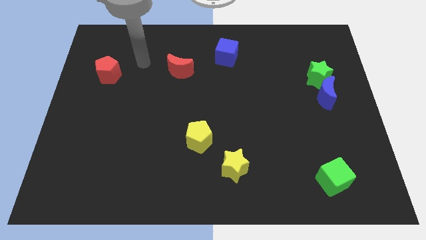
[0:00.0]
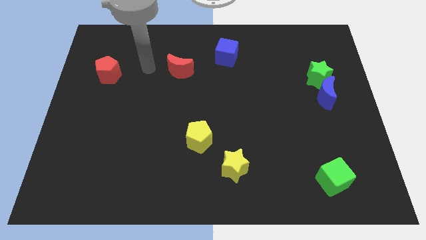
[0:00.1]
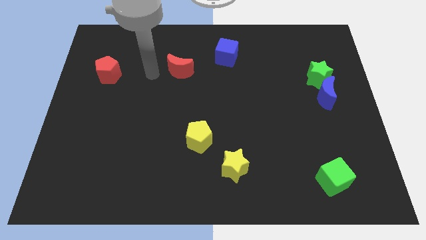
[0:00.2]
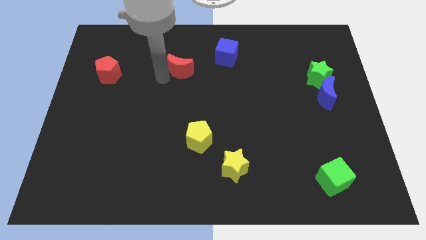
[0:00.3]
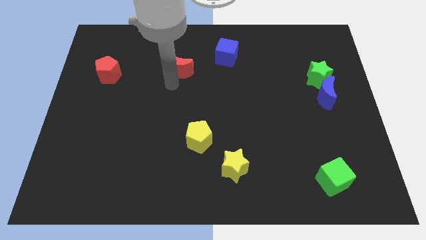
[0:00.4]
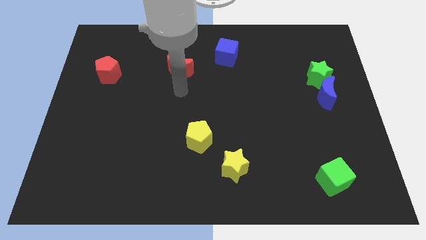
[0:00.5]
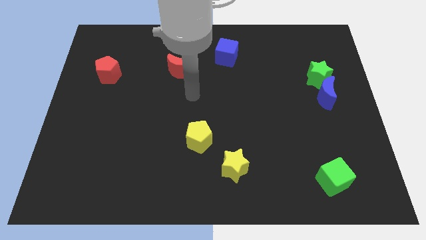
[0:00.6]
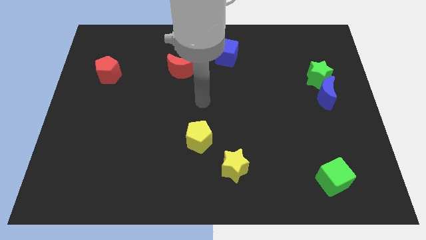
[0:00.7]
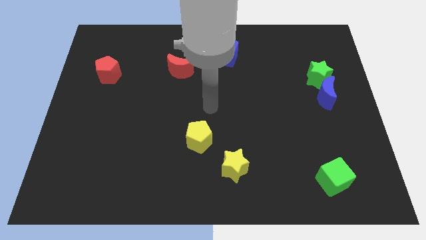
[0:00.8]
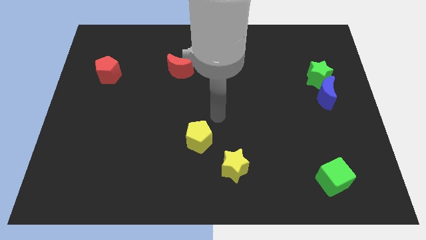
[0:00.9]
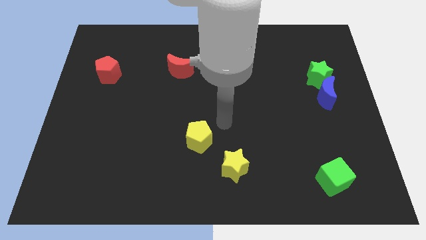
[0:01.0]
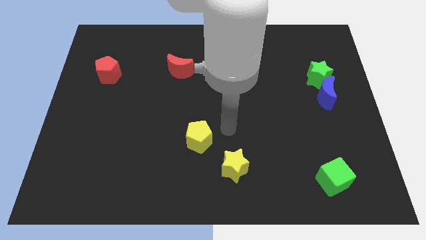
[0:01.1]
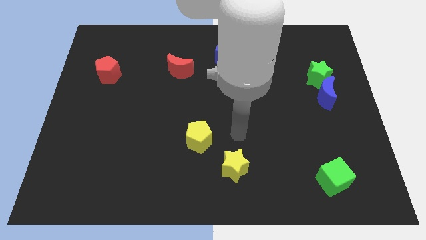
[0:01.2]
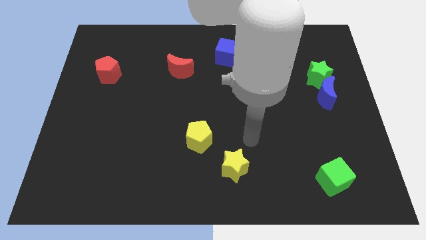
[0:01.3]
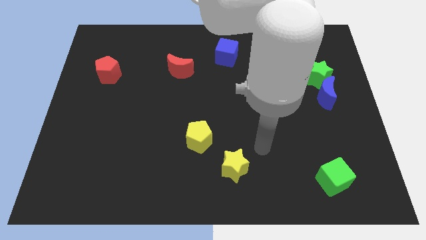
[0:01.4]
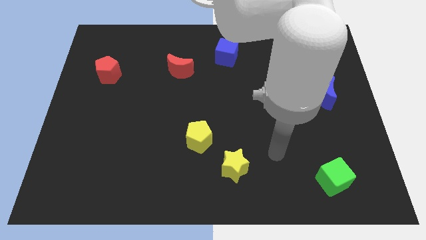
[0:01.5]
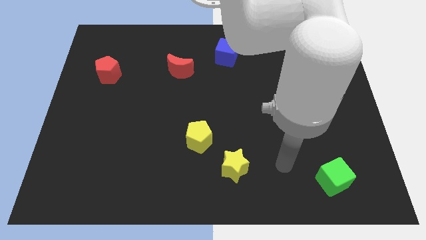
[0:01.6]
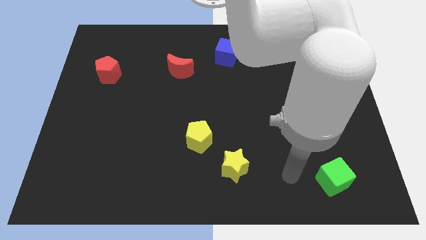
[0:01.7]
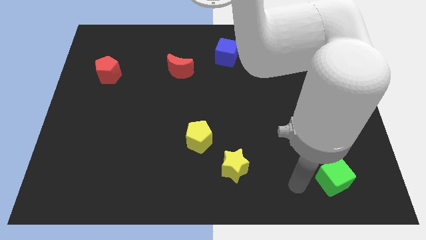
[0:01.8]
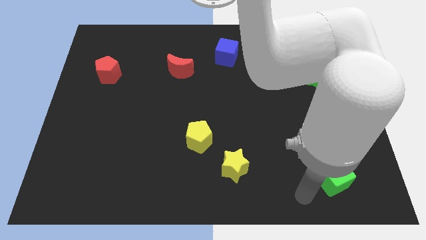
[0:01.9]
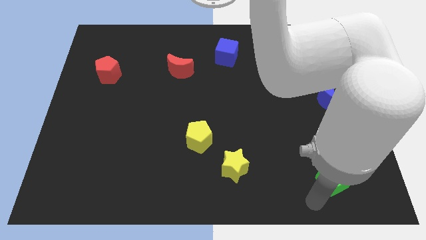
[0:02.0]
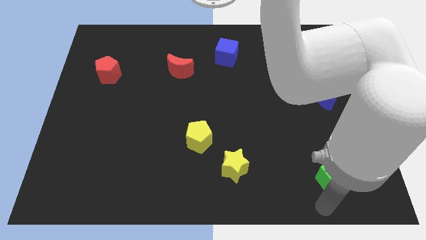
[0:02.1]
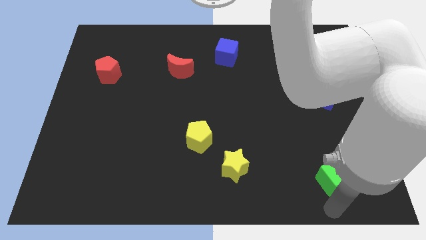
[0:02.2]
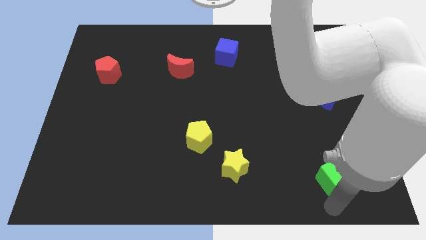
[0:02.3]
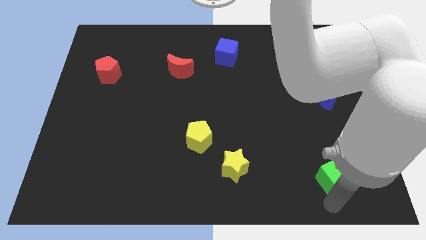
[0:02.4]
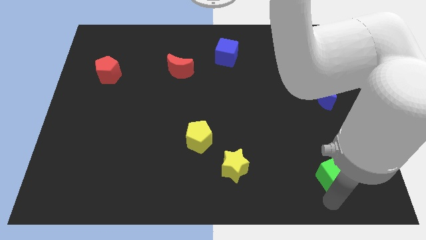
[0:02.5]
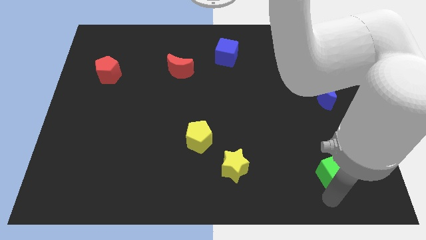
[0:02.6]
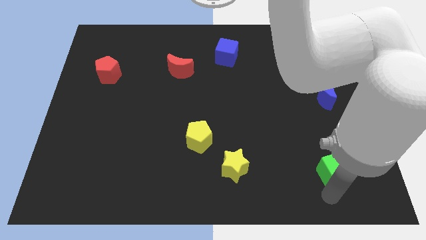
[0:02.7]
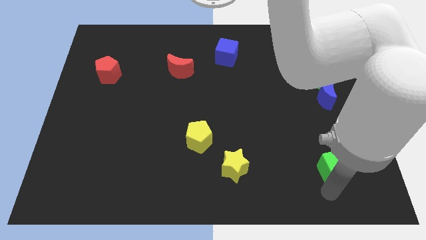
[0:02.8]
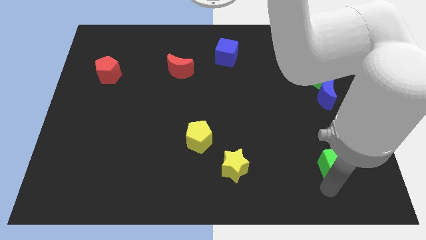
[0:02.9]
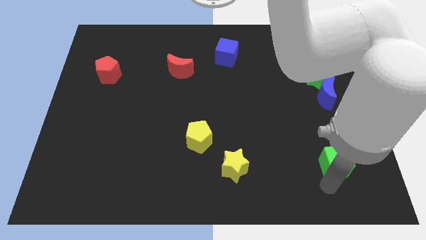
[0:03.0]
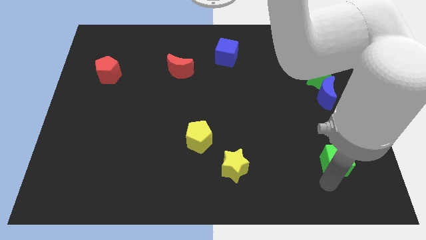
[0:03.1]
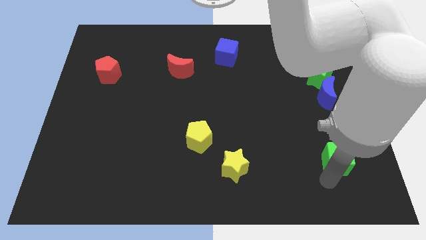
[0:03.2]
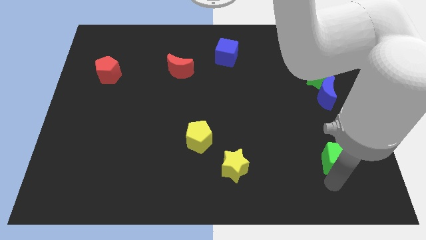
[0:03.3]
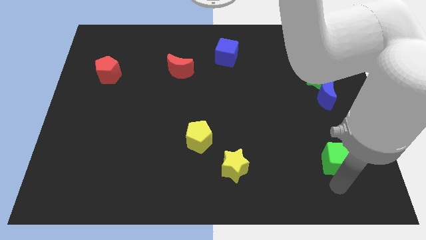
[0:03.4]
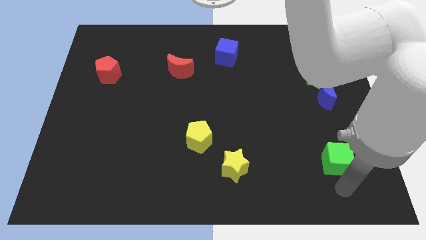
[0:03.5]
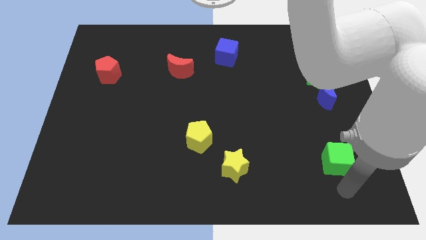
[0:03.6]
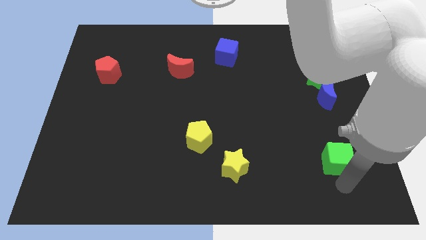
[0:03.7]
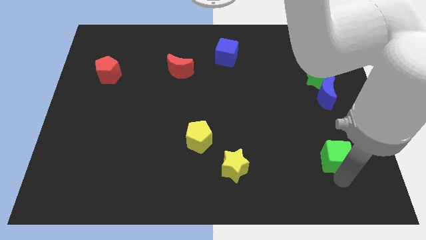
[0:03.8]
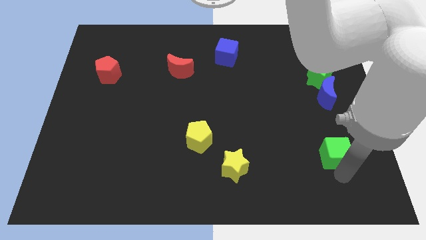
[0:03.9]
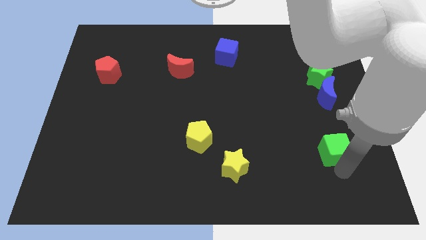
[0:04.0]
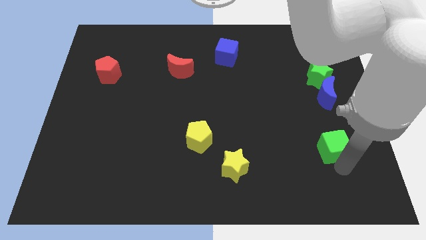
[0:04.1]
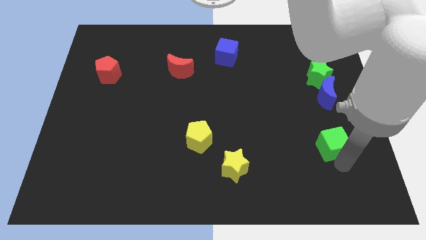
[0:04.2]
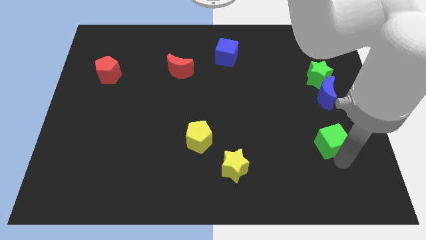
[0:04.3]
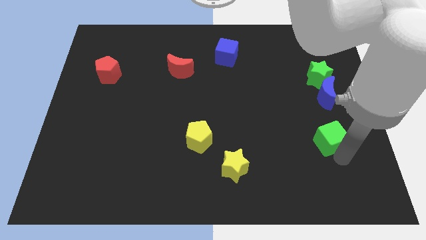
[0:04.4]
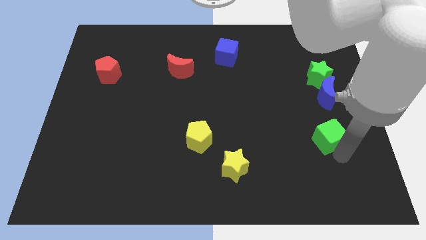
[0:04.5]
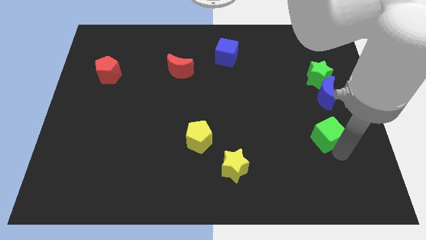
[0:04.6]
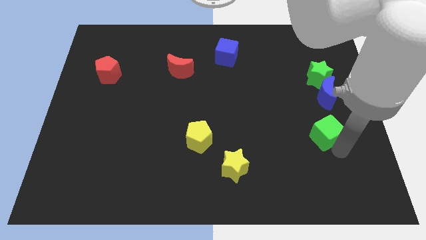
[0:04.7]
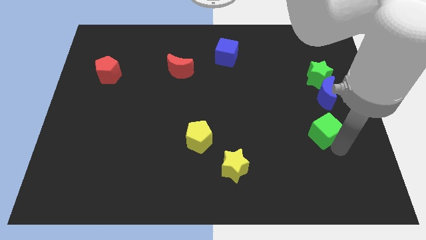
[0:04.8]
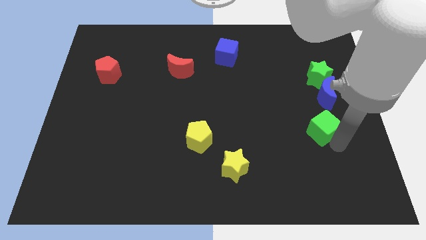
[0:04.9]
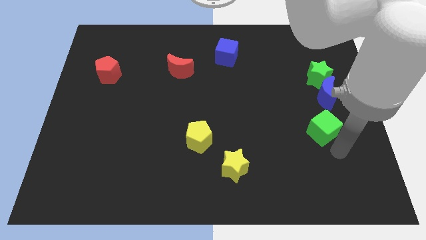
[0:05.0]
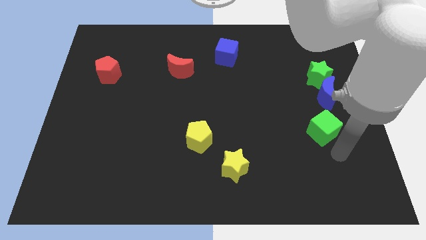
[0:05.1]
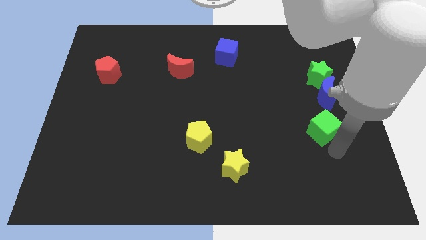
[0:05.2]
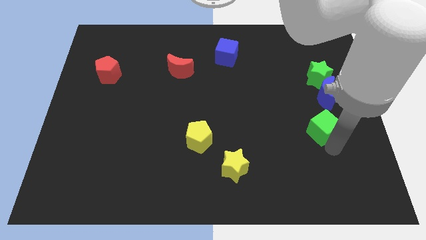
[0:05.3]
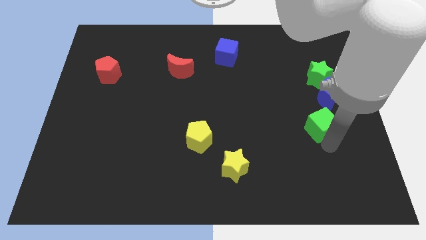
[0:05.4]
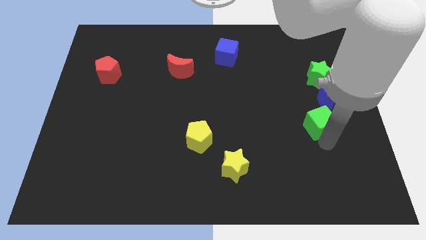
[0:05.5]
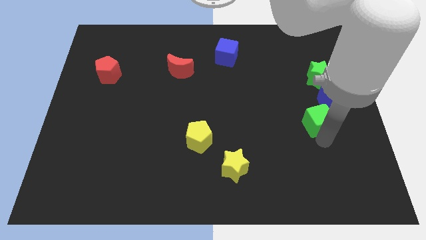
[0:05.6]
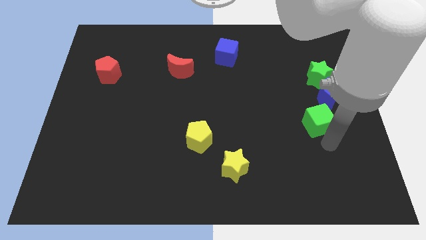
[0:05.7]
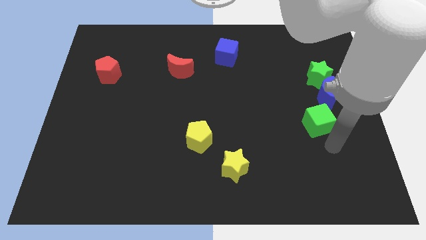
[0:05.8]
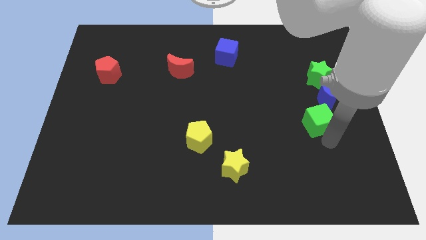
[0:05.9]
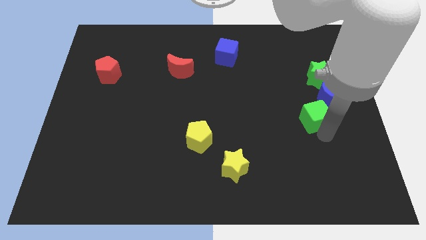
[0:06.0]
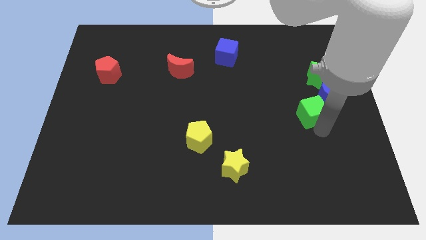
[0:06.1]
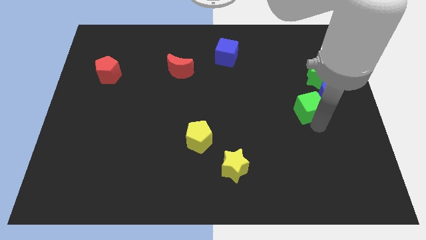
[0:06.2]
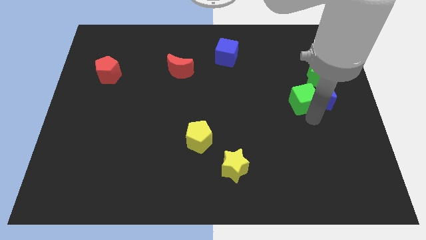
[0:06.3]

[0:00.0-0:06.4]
push the green cube upwards

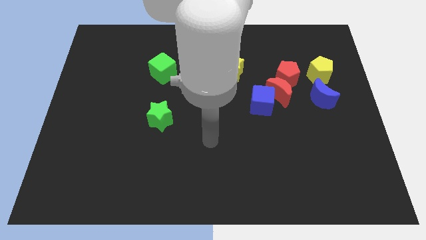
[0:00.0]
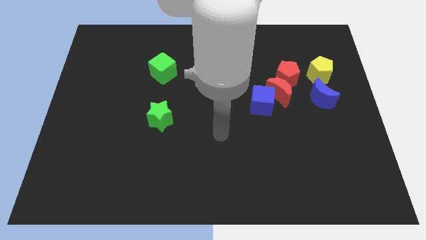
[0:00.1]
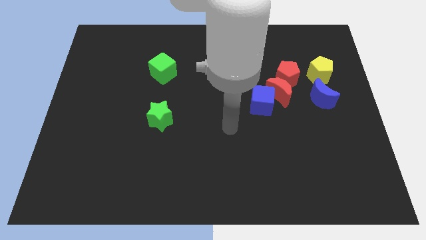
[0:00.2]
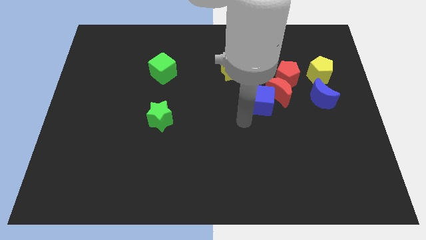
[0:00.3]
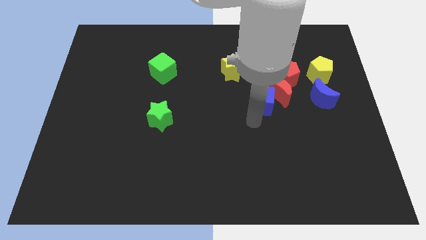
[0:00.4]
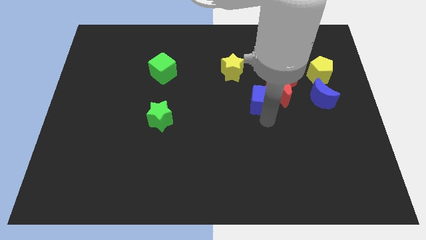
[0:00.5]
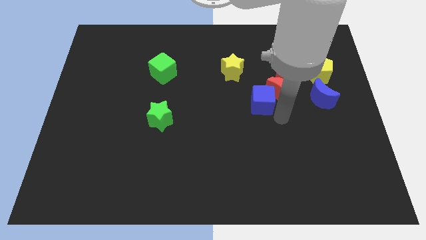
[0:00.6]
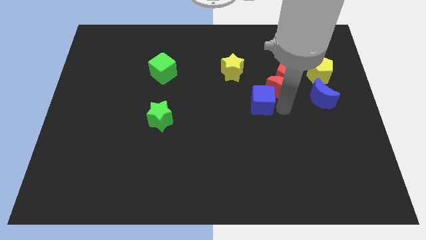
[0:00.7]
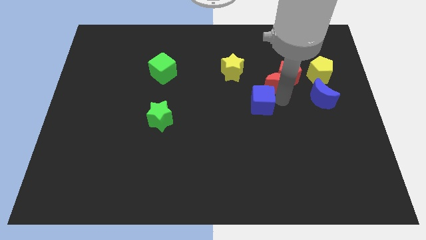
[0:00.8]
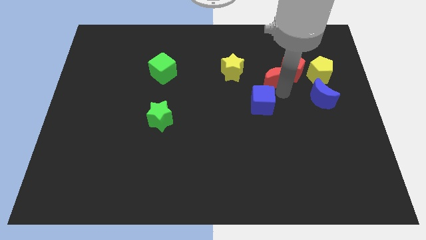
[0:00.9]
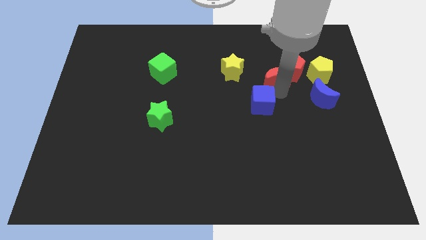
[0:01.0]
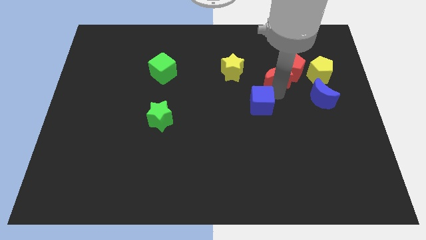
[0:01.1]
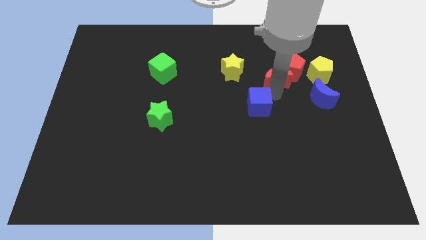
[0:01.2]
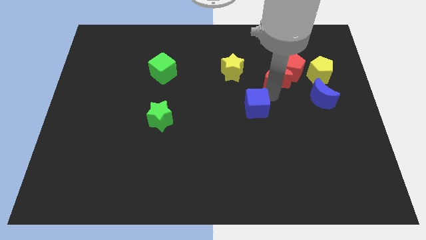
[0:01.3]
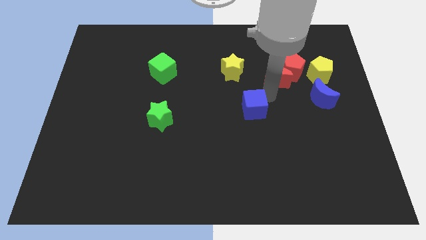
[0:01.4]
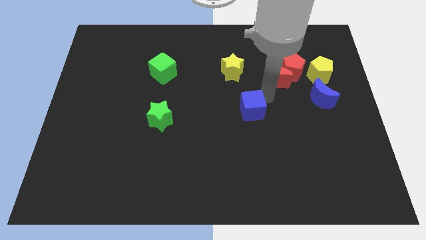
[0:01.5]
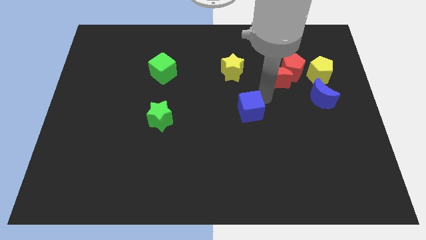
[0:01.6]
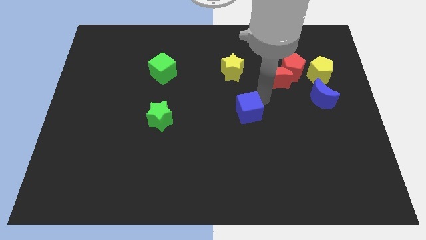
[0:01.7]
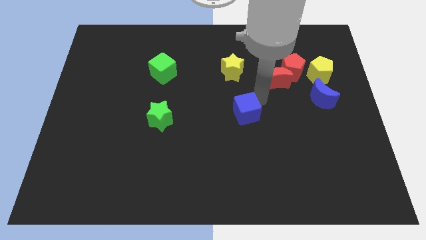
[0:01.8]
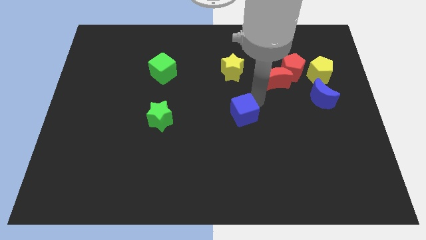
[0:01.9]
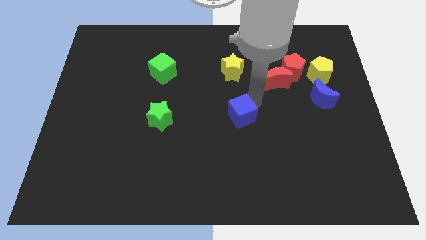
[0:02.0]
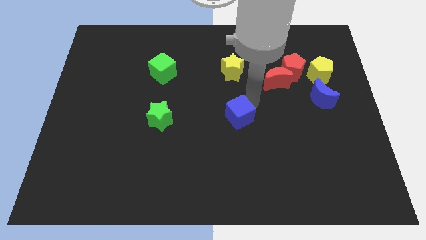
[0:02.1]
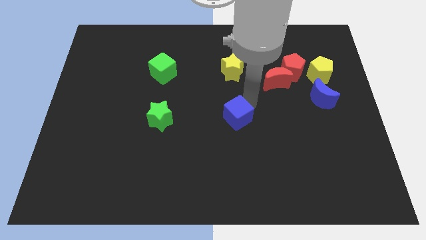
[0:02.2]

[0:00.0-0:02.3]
push the blue cube a little down and then to the left
